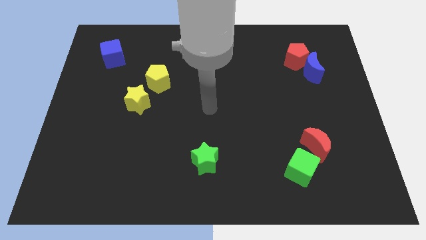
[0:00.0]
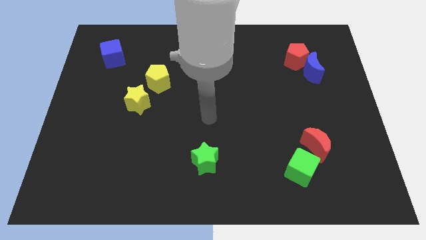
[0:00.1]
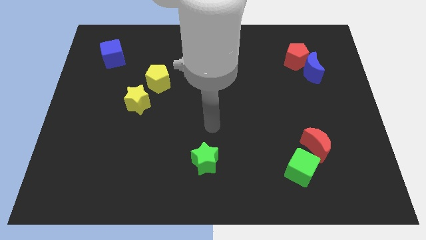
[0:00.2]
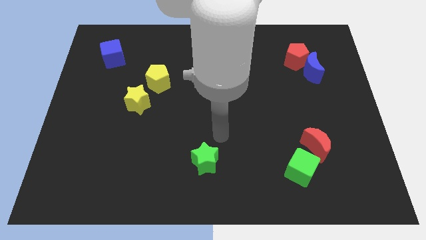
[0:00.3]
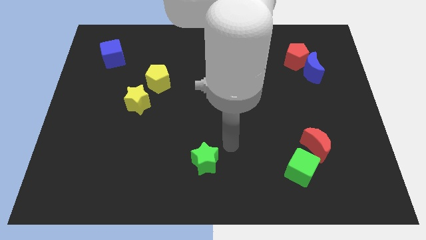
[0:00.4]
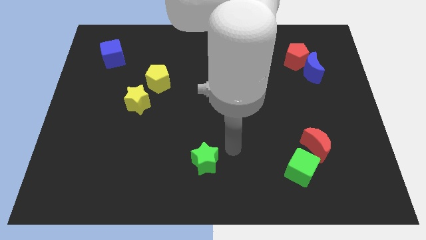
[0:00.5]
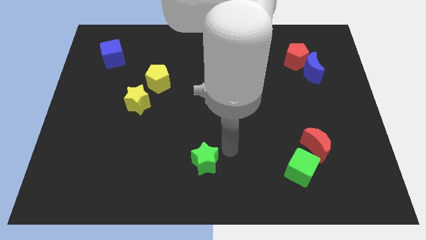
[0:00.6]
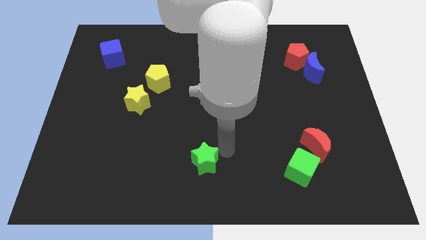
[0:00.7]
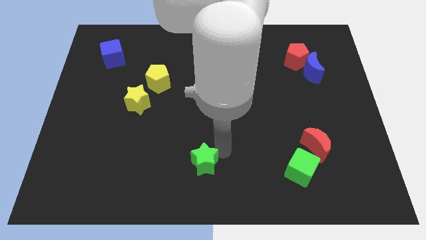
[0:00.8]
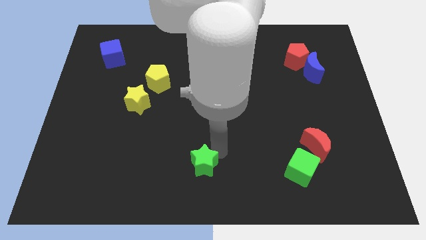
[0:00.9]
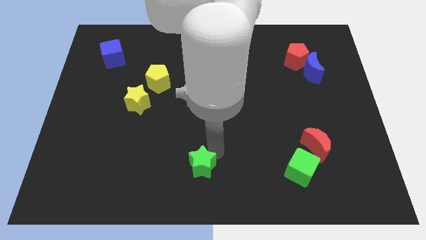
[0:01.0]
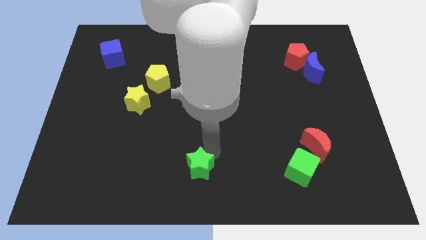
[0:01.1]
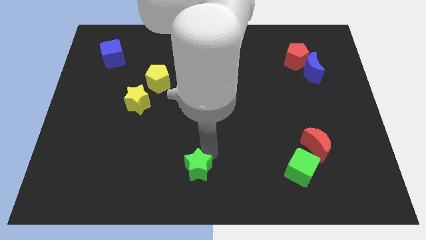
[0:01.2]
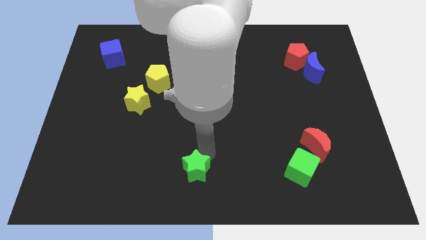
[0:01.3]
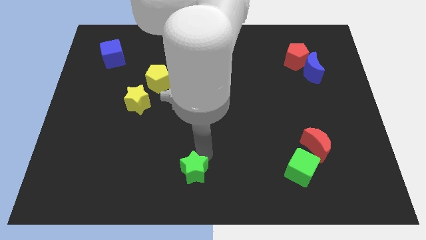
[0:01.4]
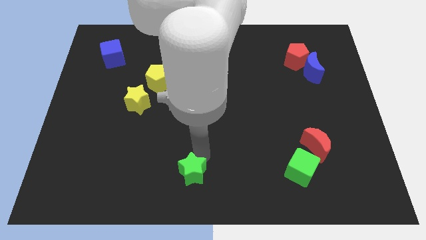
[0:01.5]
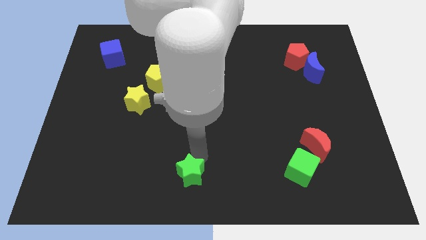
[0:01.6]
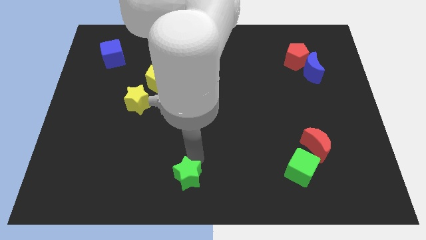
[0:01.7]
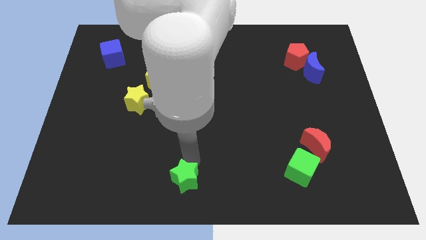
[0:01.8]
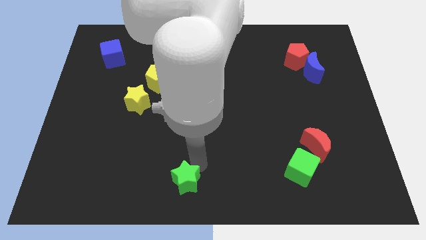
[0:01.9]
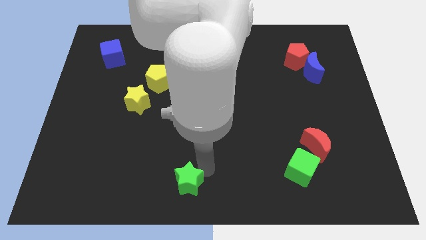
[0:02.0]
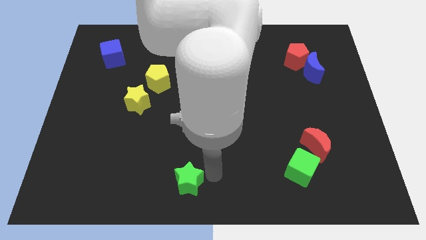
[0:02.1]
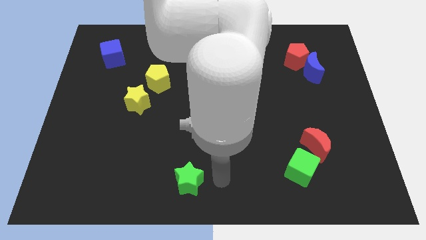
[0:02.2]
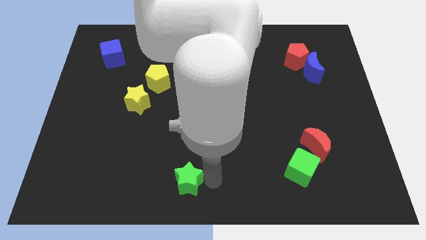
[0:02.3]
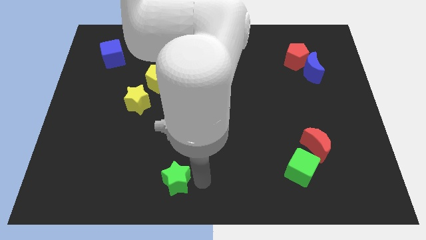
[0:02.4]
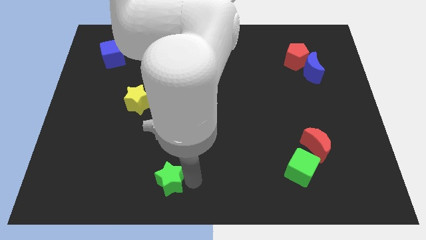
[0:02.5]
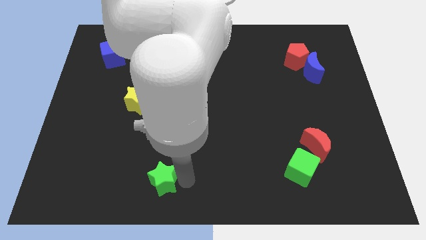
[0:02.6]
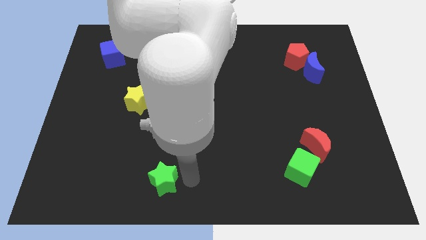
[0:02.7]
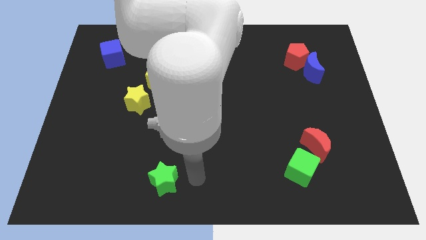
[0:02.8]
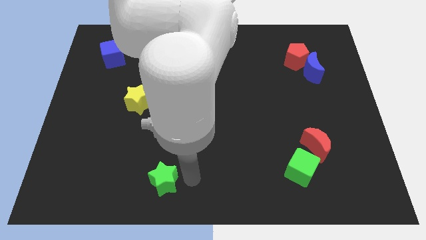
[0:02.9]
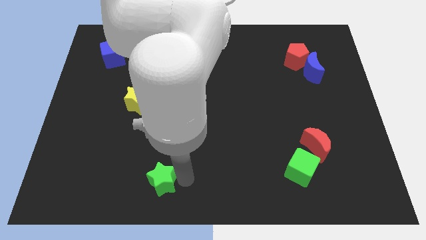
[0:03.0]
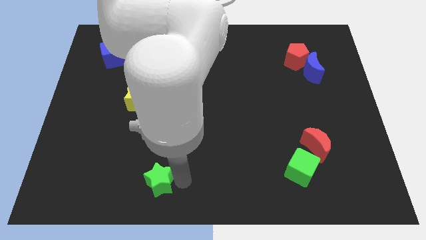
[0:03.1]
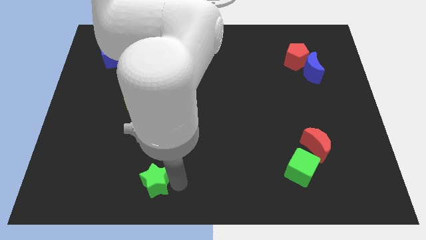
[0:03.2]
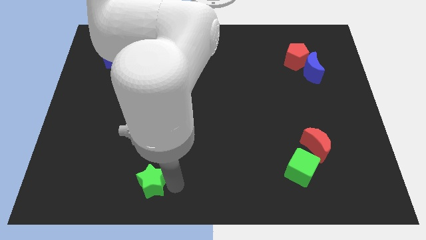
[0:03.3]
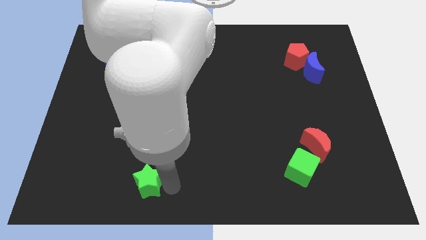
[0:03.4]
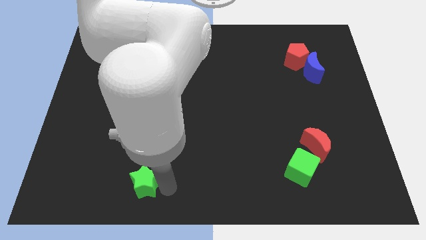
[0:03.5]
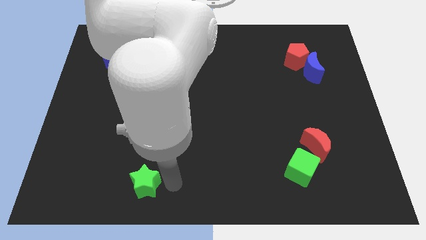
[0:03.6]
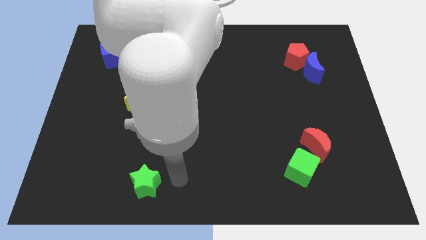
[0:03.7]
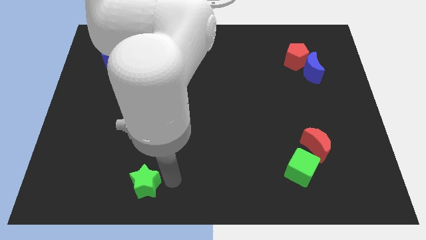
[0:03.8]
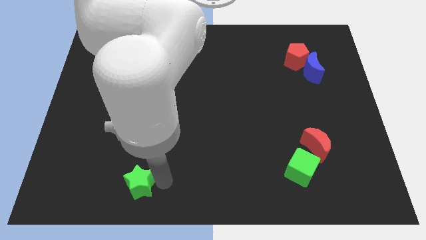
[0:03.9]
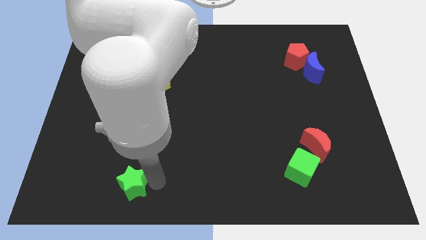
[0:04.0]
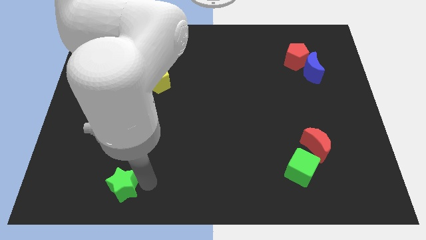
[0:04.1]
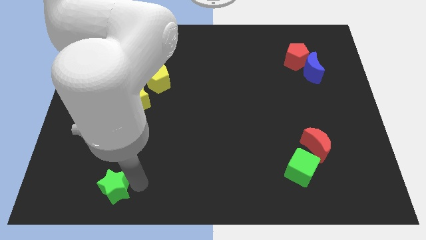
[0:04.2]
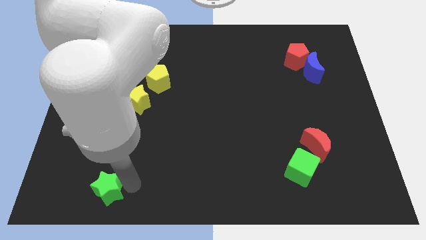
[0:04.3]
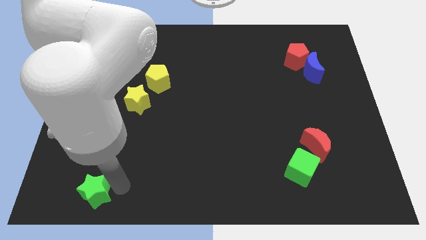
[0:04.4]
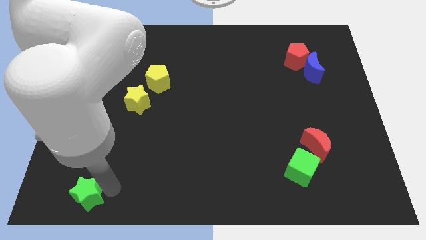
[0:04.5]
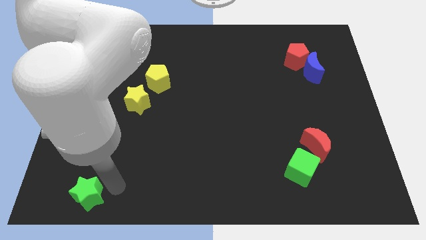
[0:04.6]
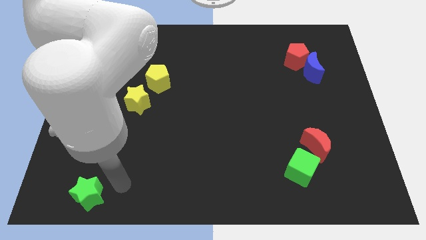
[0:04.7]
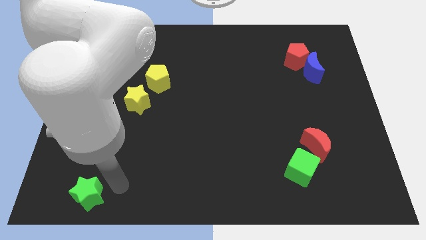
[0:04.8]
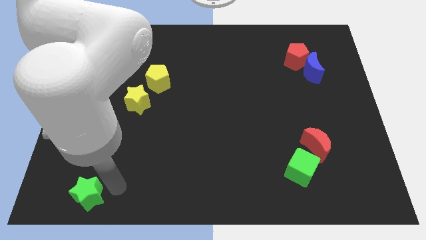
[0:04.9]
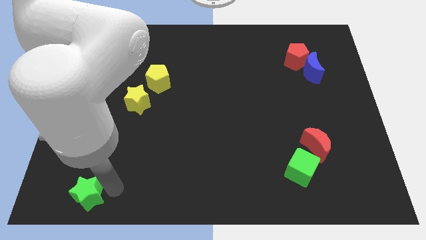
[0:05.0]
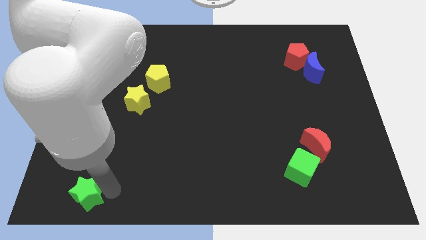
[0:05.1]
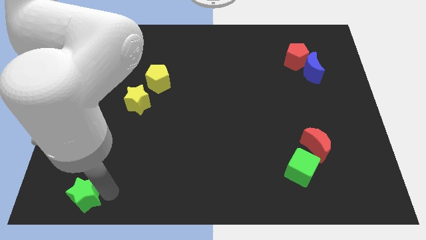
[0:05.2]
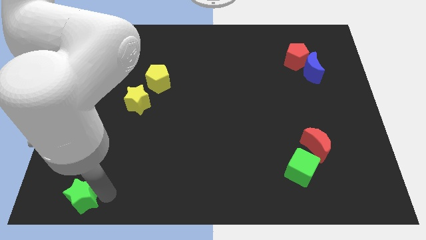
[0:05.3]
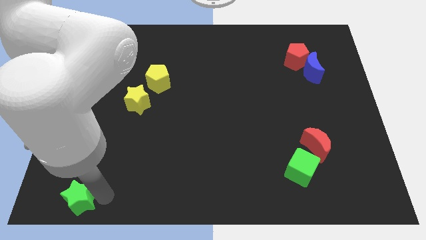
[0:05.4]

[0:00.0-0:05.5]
put the green star to the bottom left

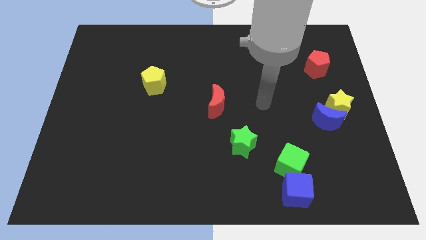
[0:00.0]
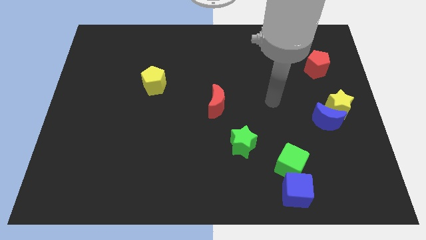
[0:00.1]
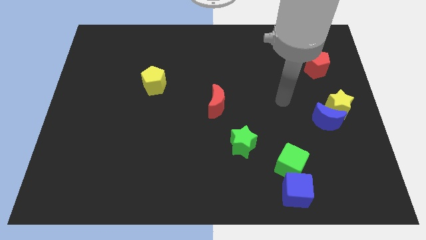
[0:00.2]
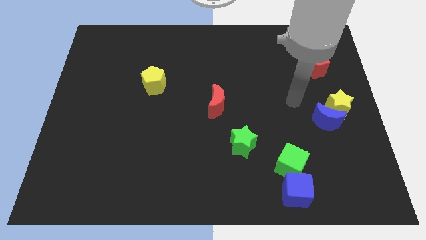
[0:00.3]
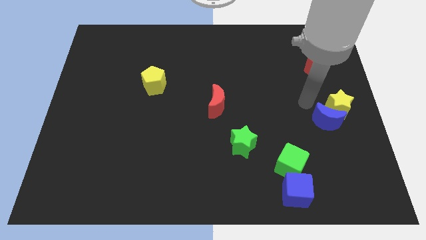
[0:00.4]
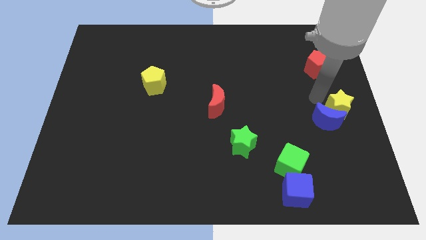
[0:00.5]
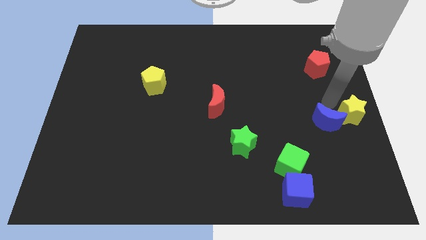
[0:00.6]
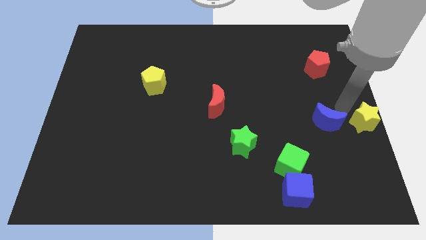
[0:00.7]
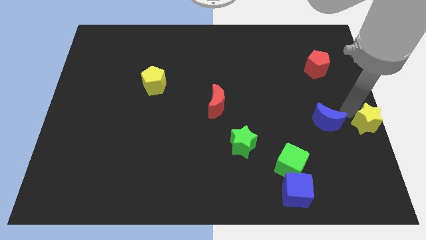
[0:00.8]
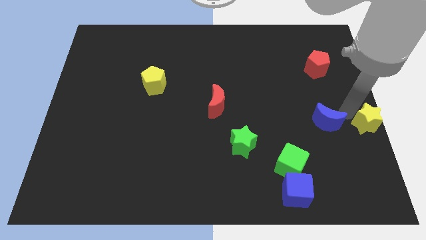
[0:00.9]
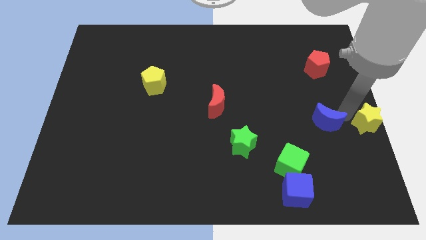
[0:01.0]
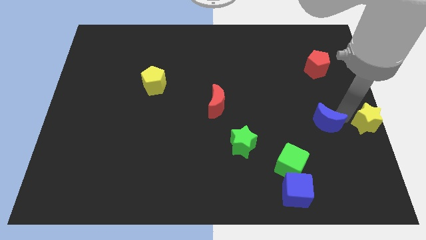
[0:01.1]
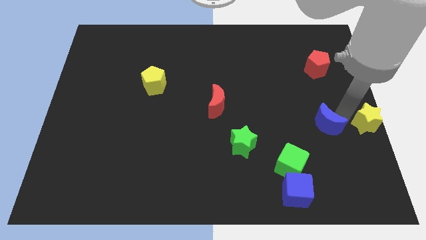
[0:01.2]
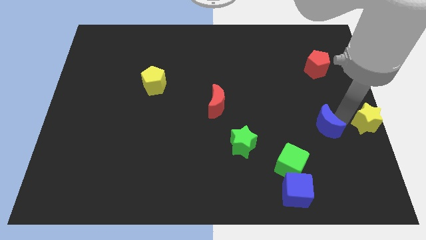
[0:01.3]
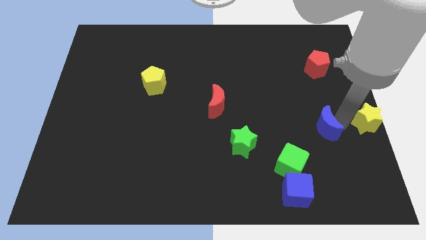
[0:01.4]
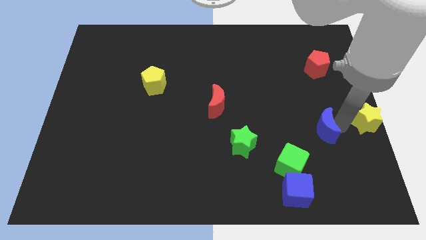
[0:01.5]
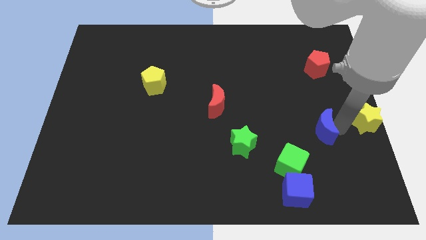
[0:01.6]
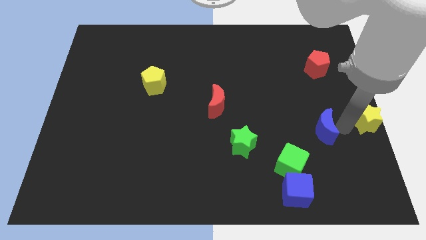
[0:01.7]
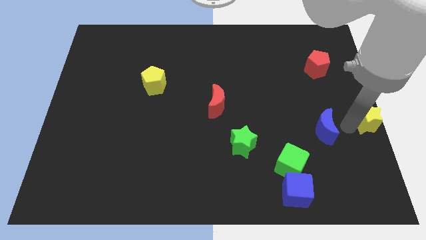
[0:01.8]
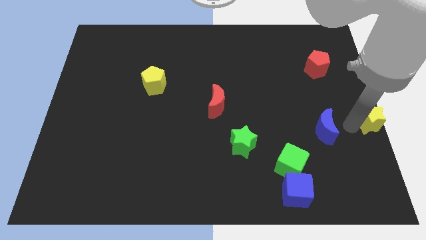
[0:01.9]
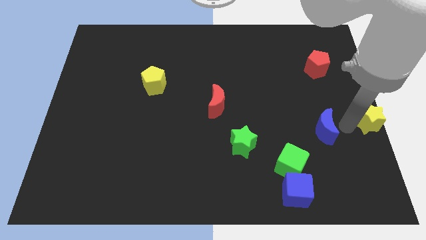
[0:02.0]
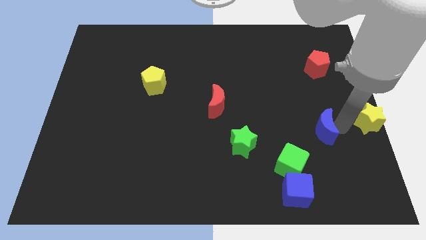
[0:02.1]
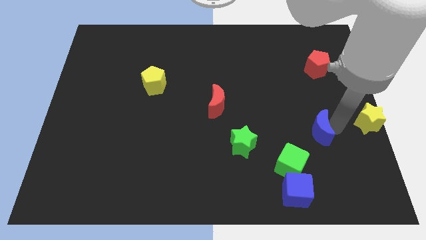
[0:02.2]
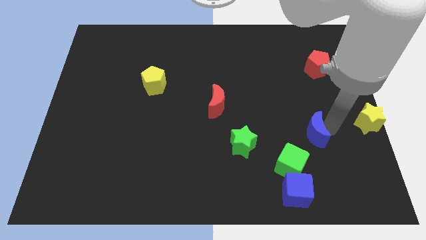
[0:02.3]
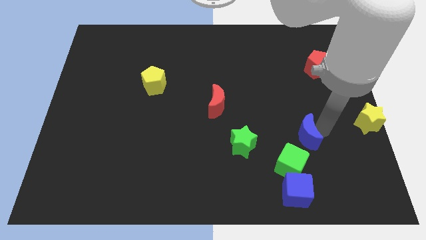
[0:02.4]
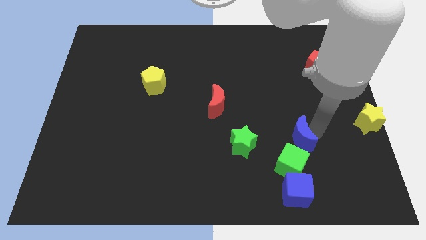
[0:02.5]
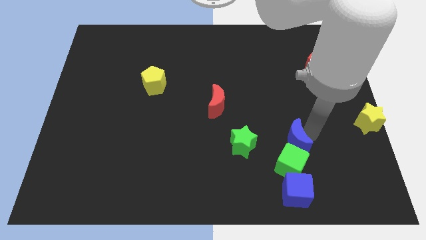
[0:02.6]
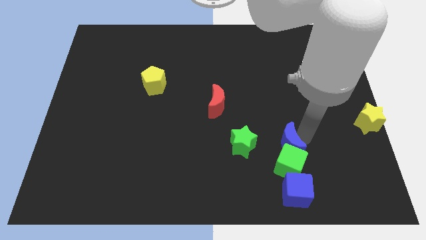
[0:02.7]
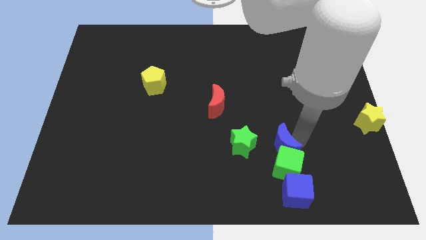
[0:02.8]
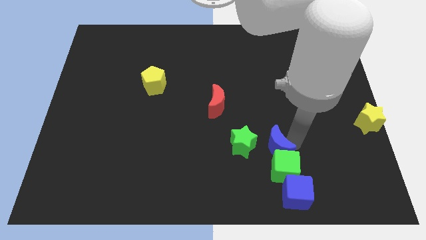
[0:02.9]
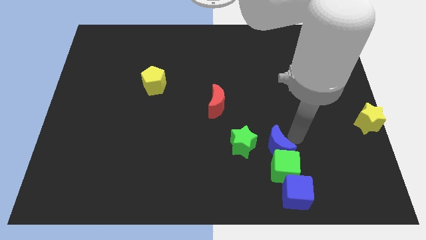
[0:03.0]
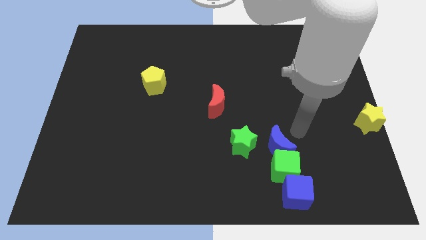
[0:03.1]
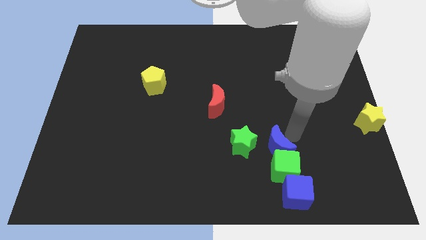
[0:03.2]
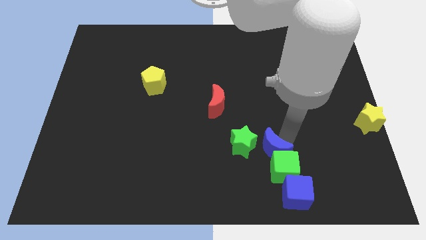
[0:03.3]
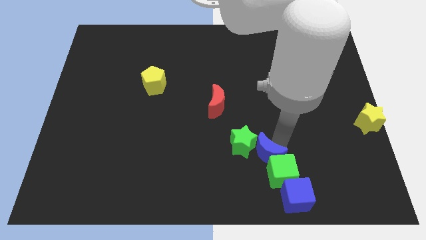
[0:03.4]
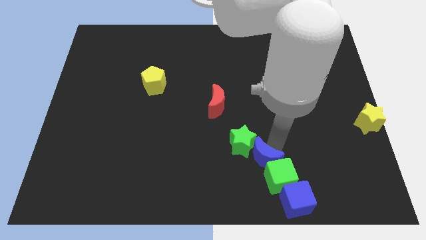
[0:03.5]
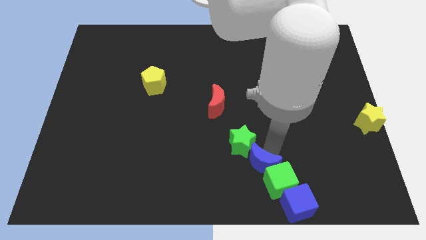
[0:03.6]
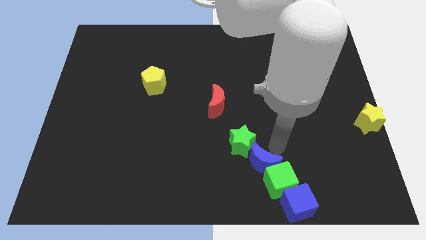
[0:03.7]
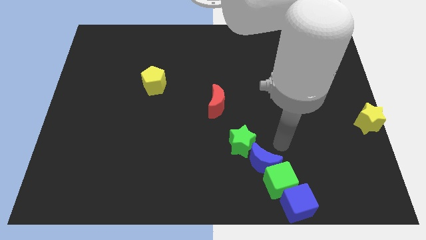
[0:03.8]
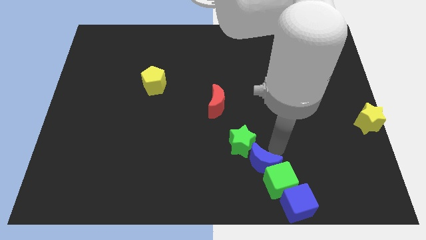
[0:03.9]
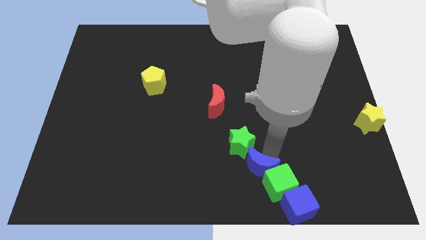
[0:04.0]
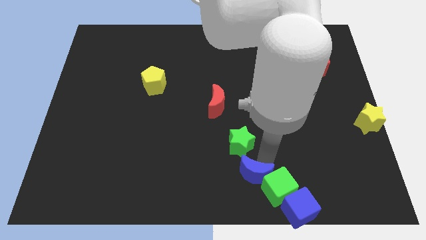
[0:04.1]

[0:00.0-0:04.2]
put the blue moon to the bottom
